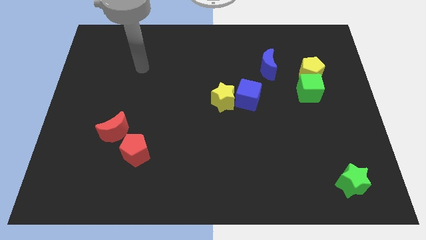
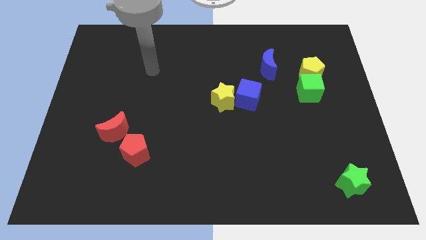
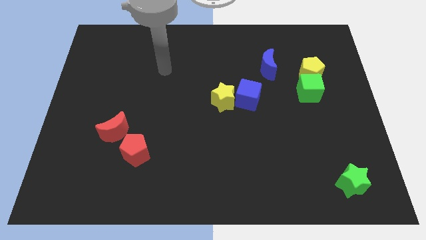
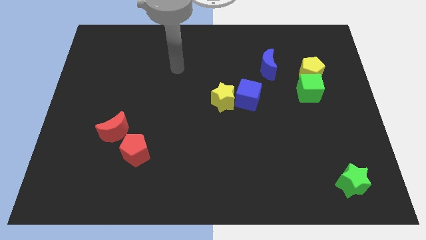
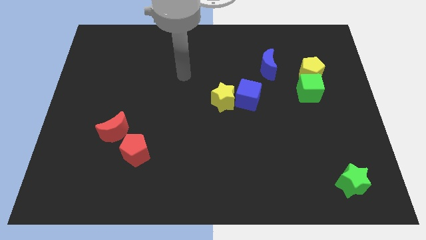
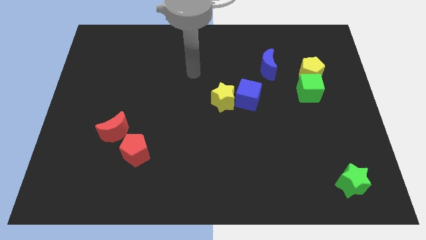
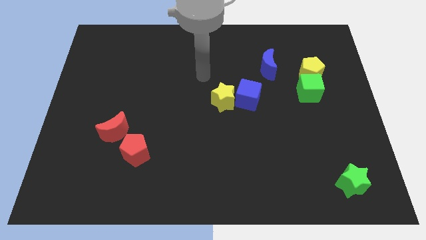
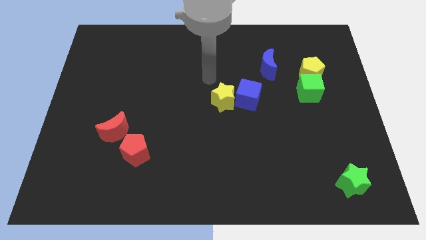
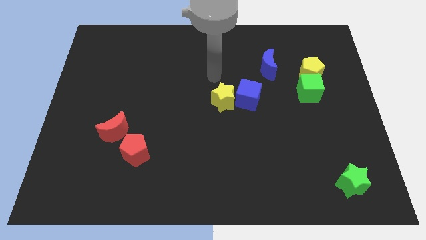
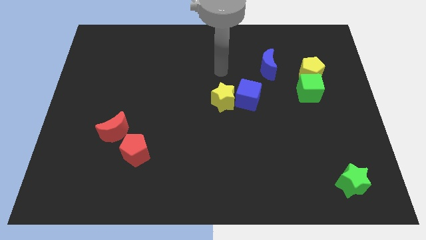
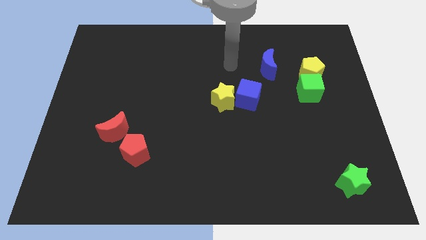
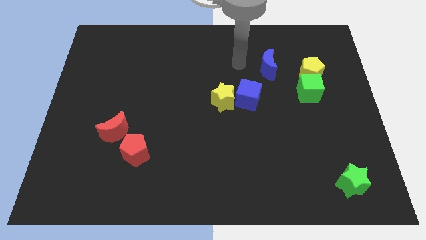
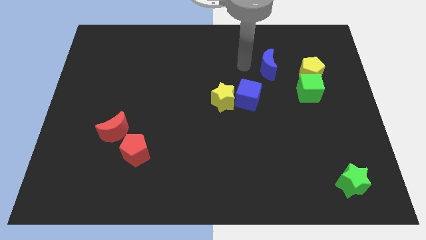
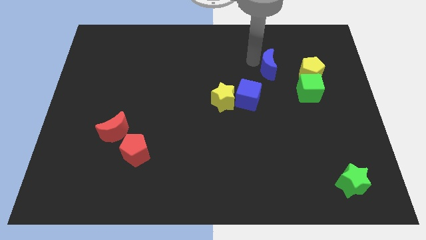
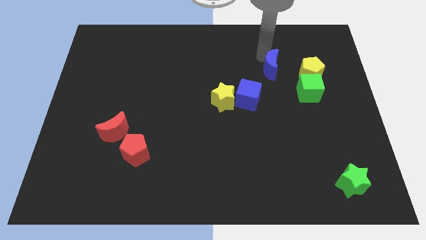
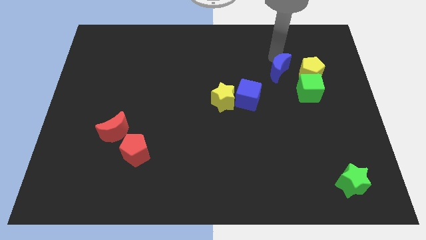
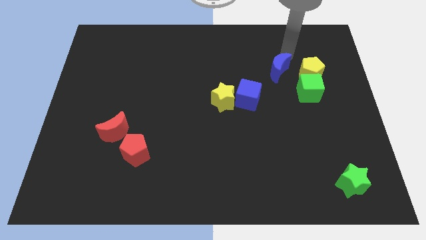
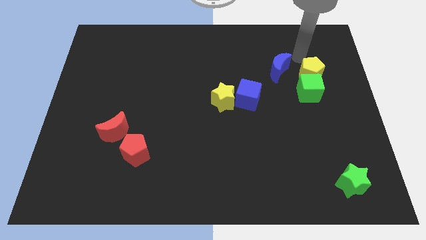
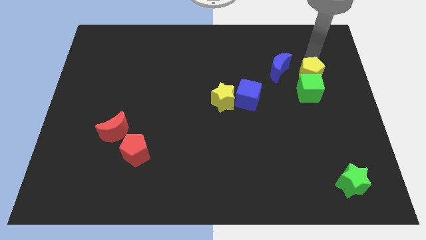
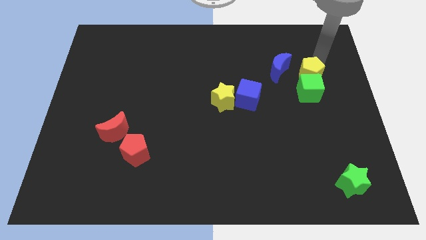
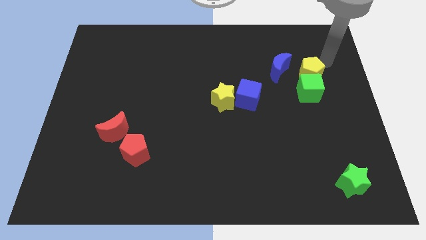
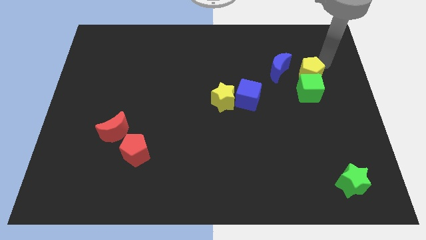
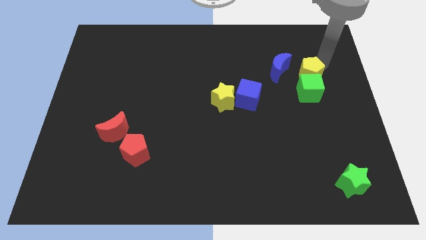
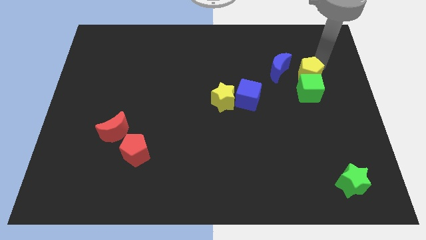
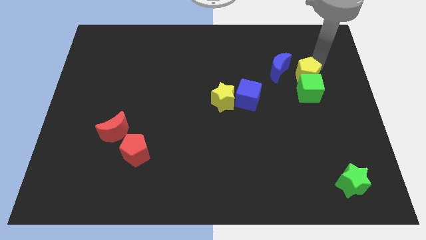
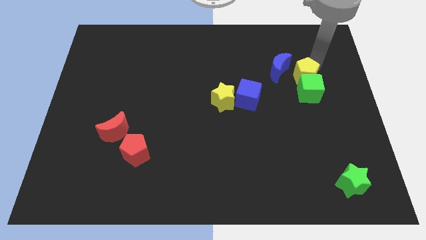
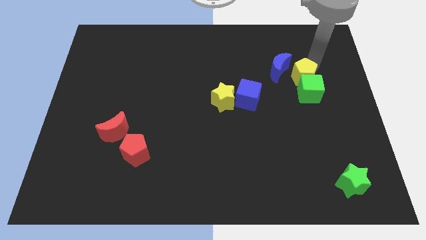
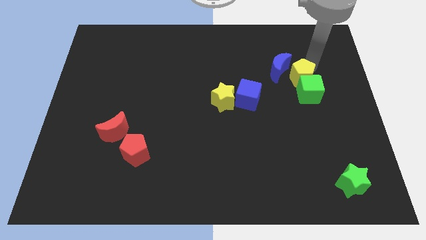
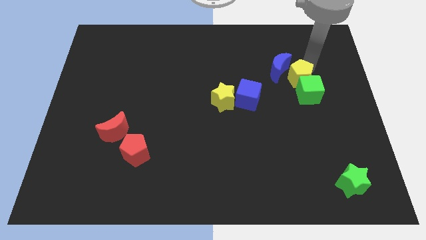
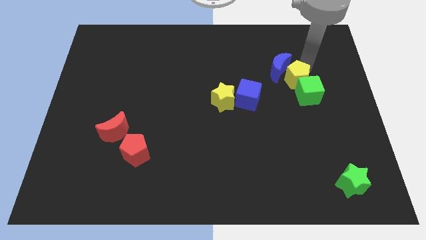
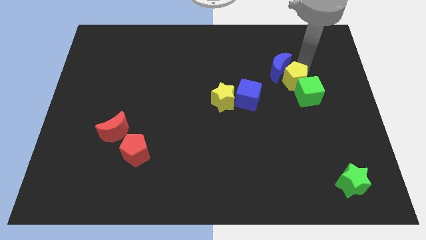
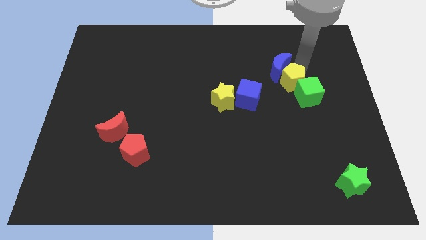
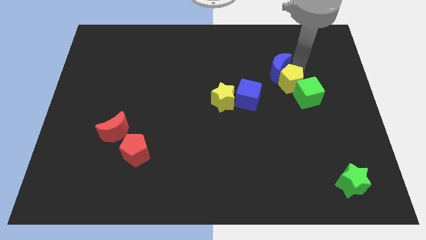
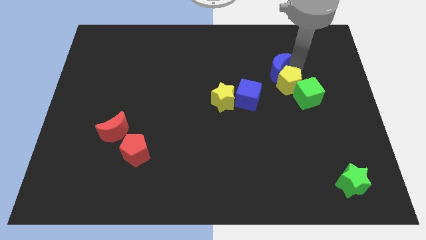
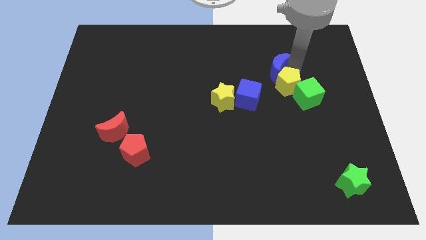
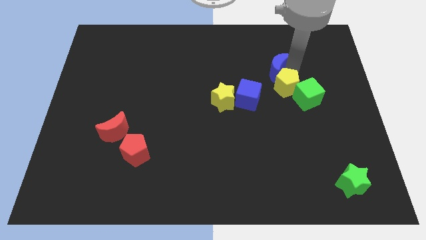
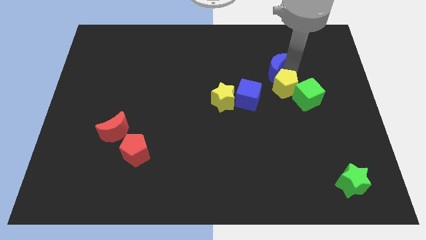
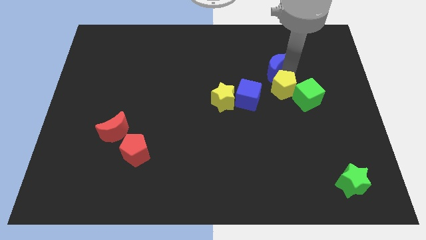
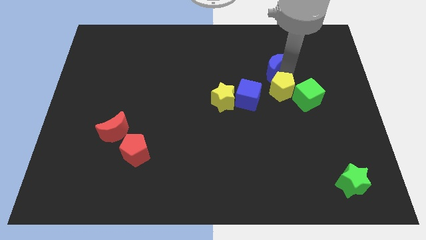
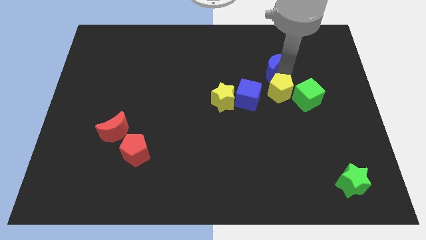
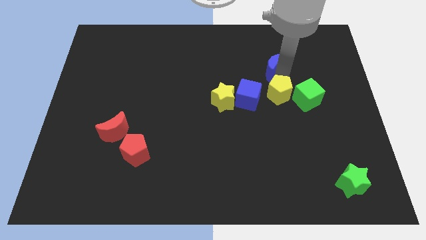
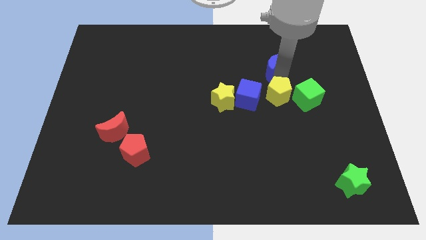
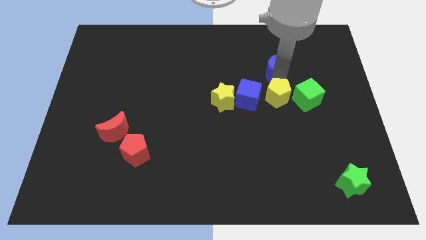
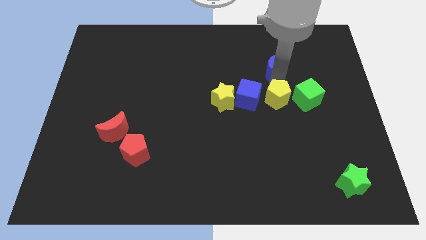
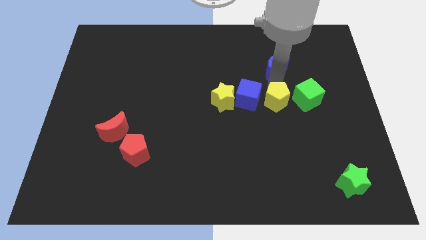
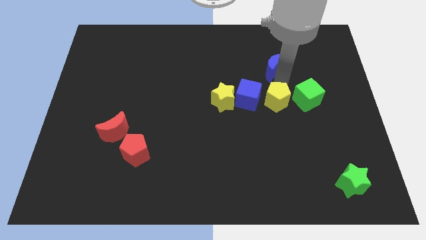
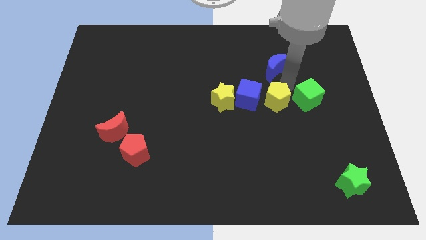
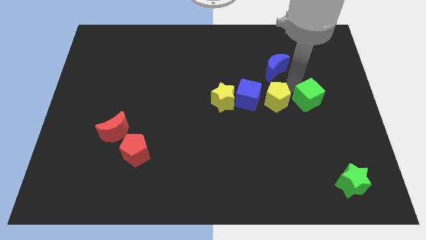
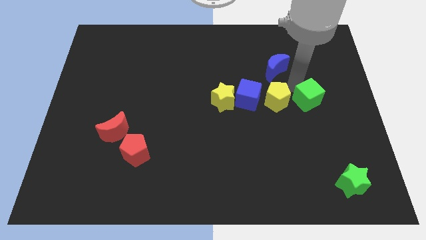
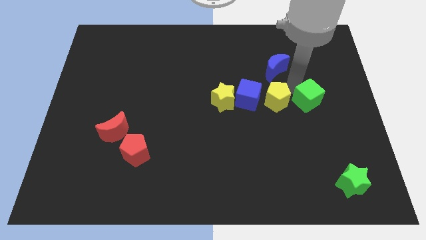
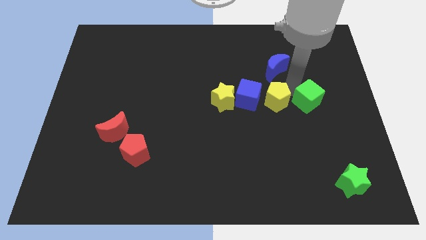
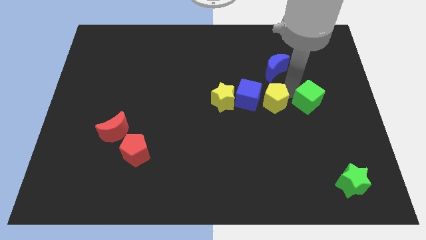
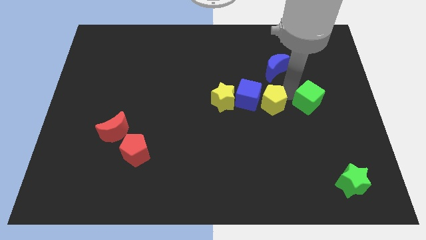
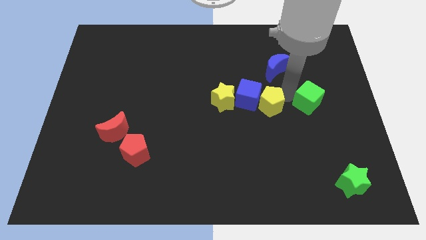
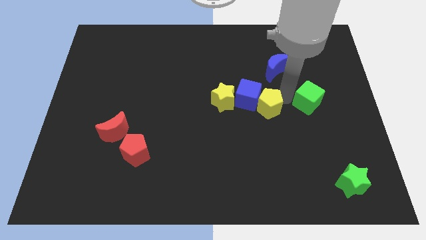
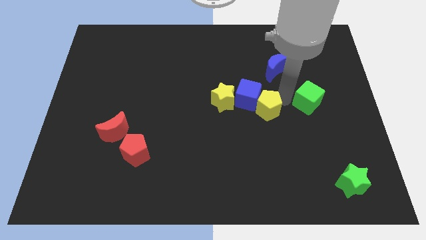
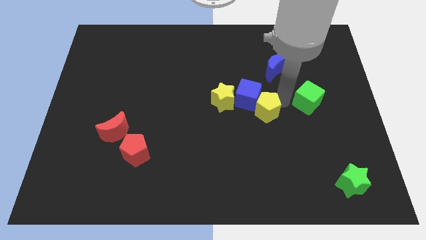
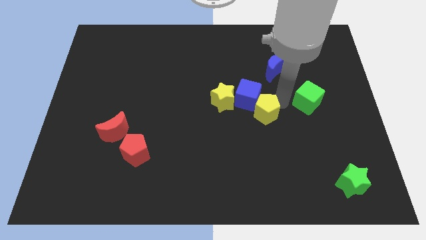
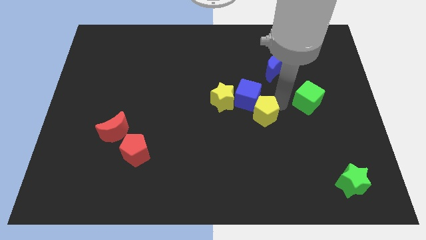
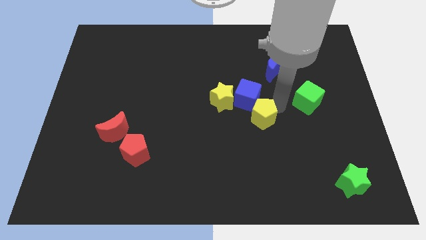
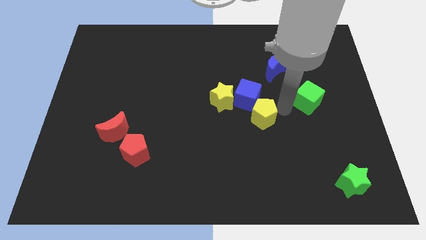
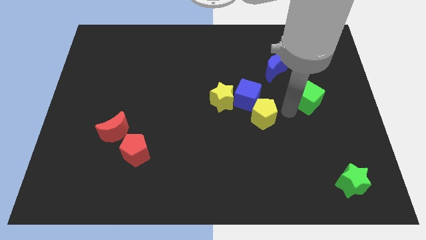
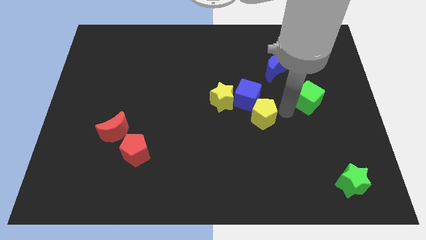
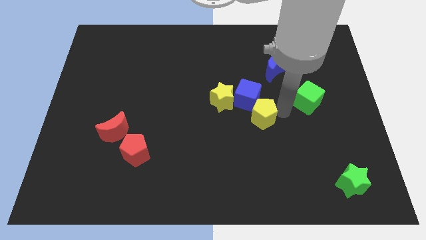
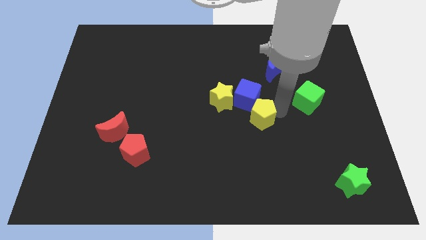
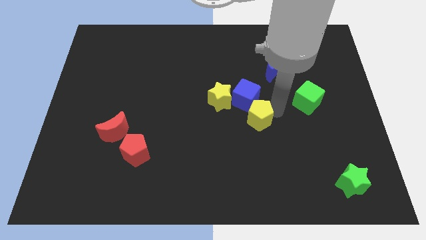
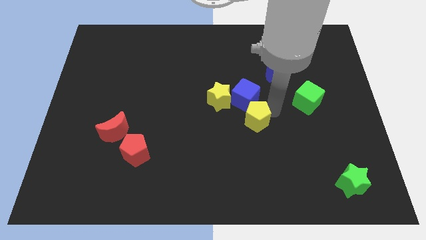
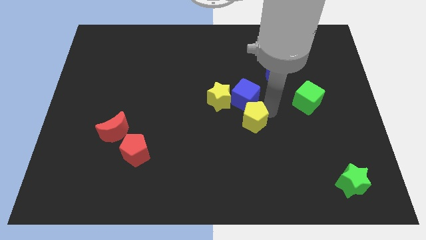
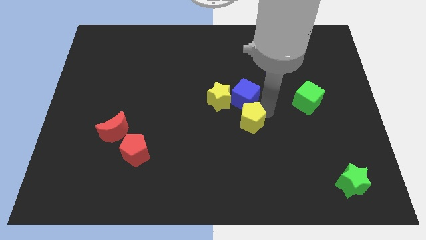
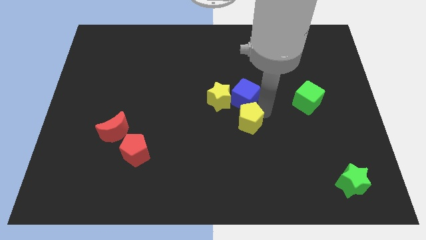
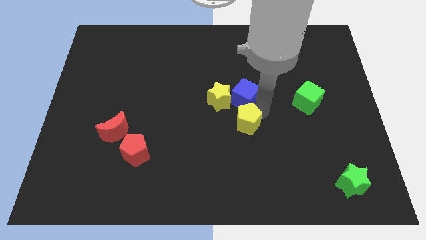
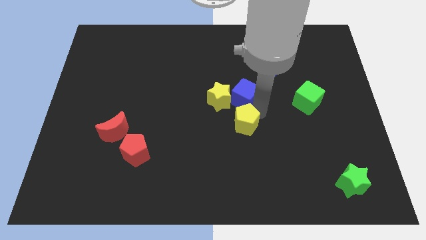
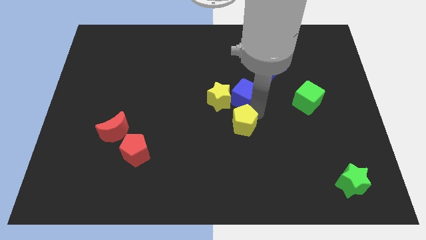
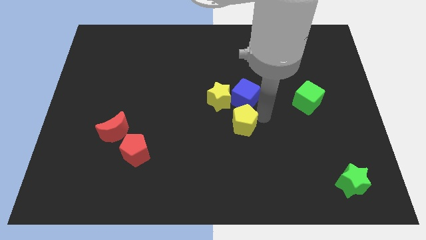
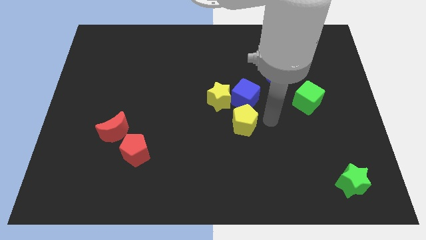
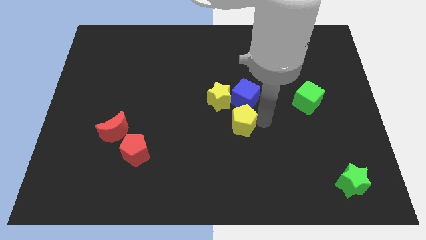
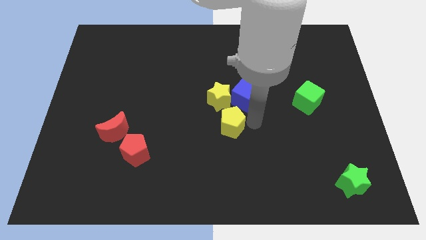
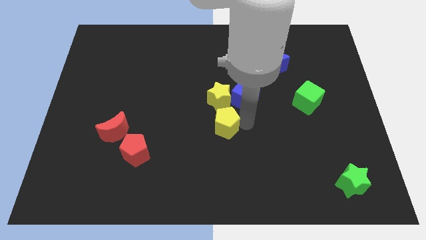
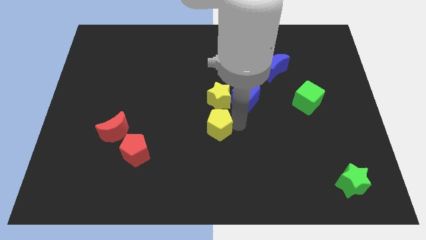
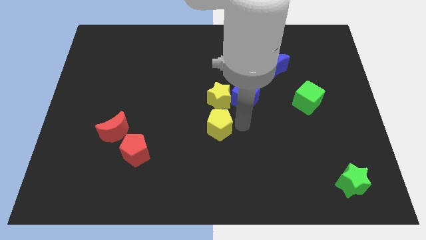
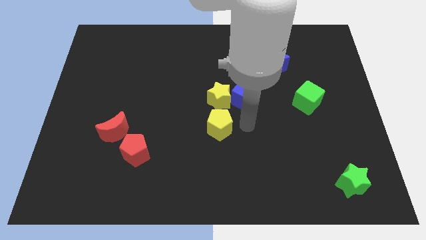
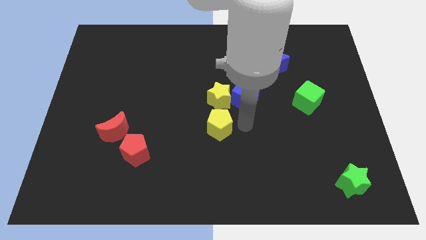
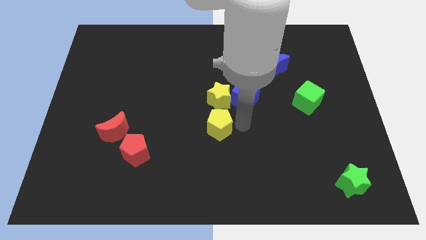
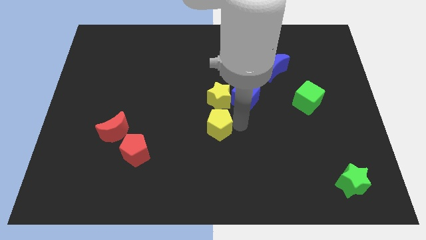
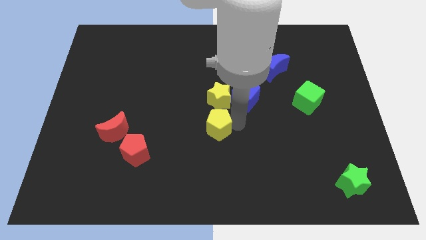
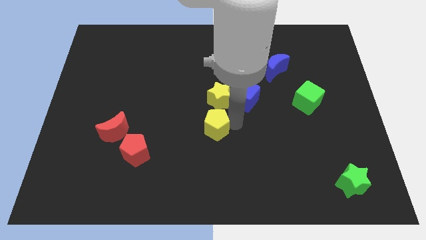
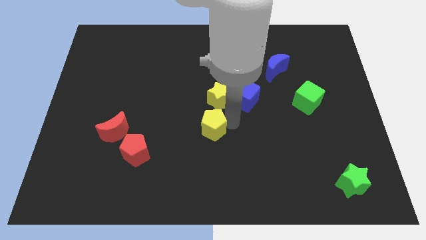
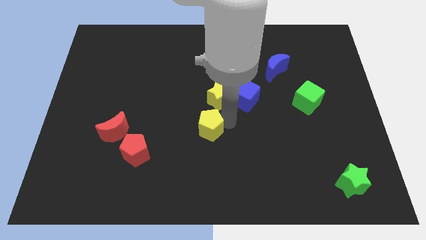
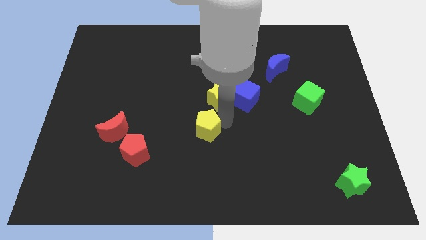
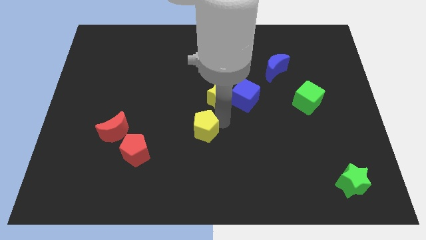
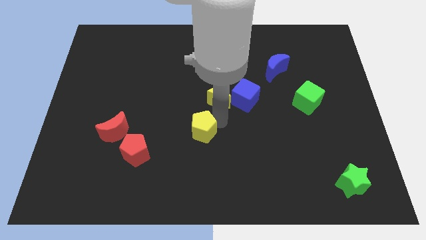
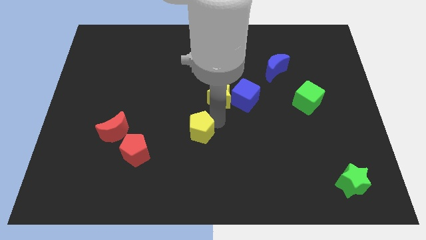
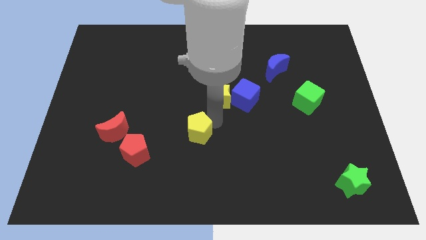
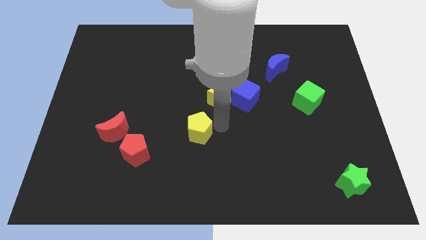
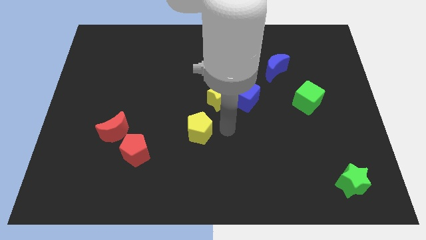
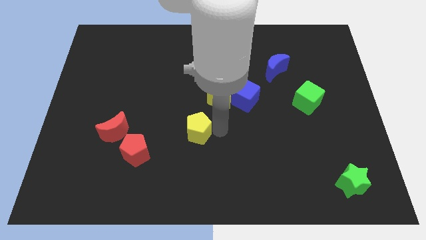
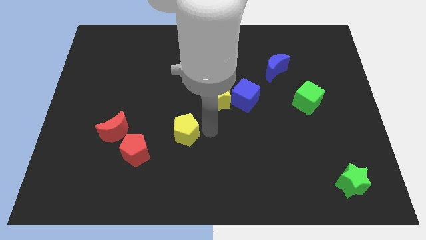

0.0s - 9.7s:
move the yellow pentagon diagonally up and to the right of the red pentagon
